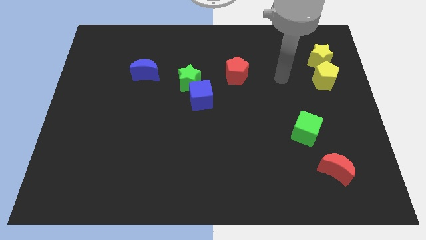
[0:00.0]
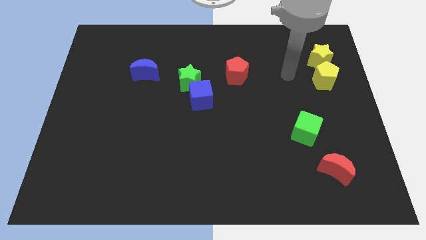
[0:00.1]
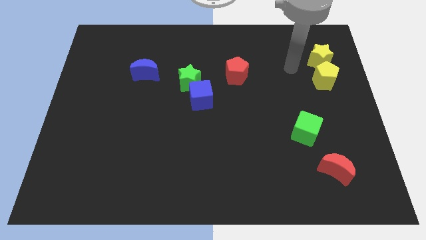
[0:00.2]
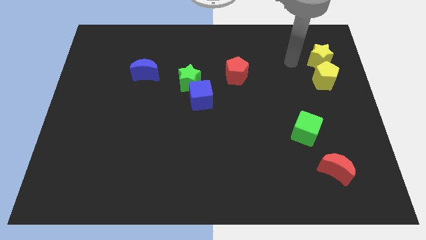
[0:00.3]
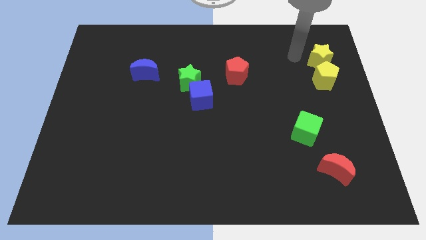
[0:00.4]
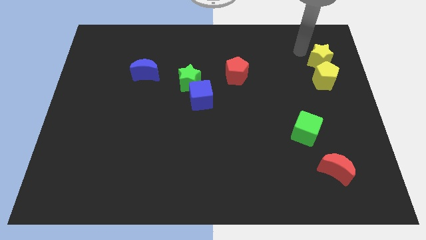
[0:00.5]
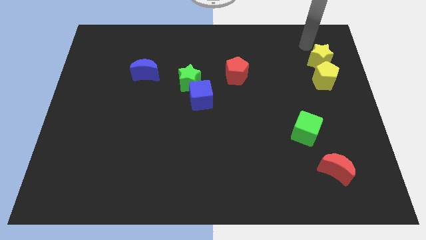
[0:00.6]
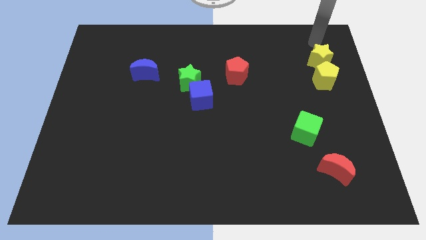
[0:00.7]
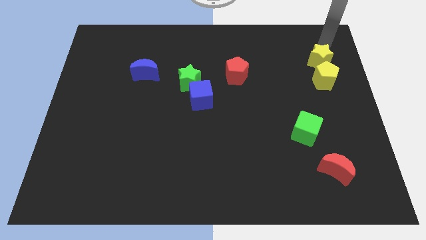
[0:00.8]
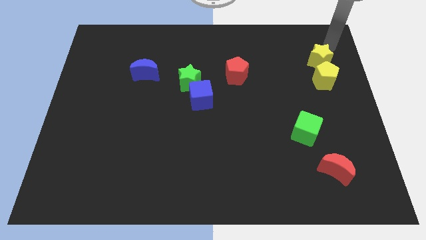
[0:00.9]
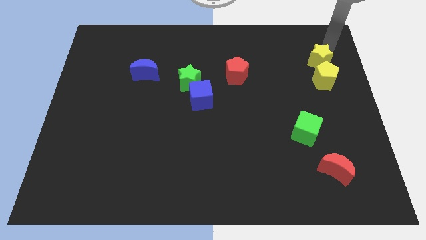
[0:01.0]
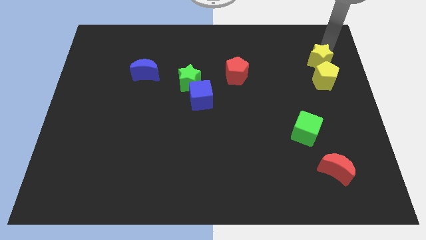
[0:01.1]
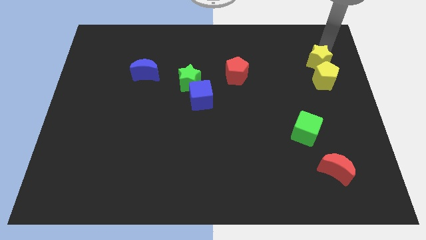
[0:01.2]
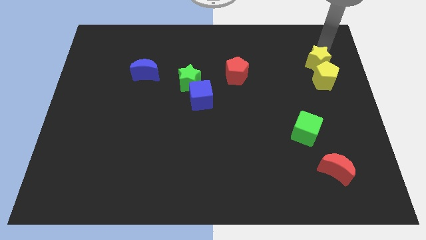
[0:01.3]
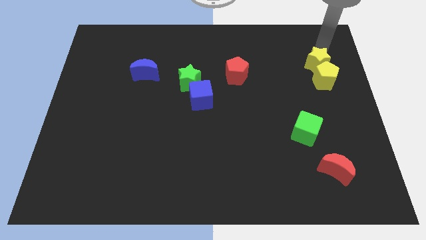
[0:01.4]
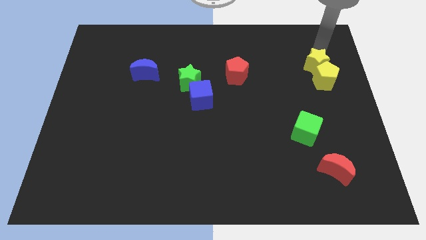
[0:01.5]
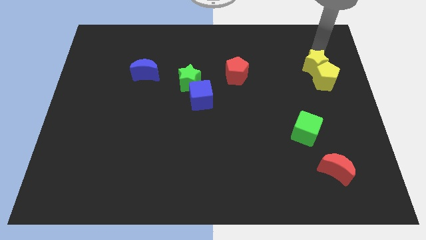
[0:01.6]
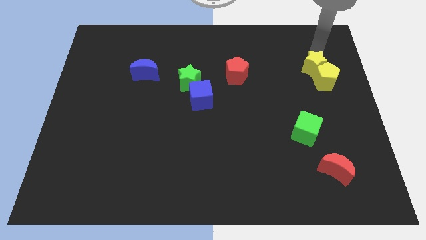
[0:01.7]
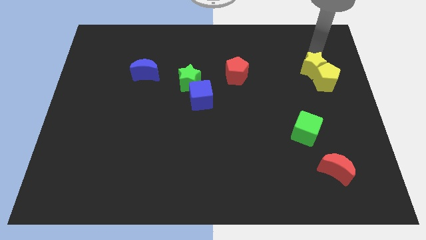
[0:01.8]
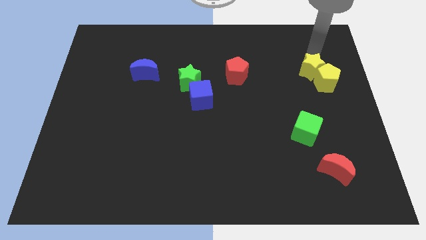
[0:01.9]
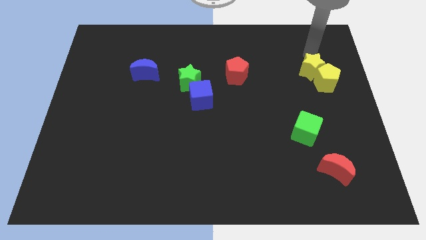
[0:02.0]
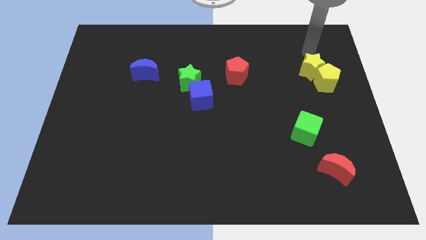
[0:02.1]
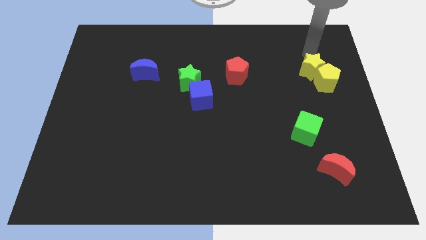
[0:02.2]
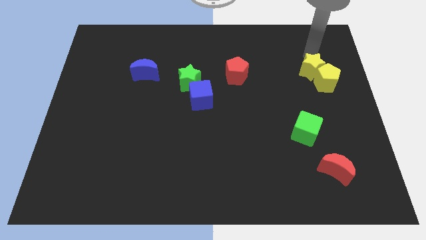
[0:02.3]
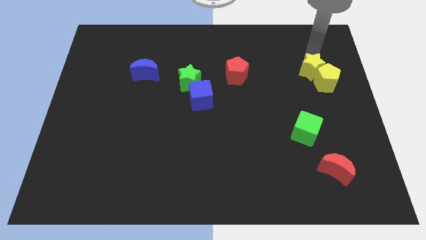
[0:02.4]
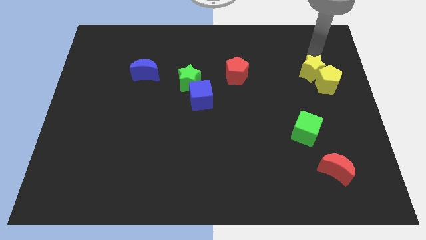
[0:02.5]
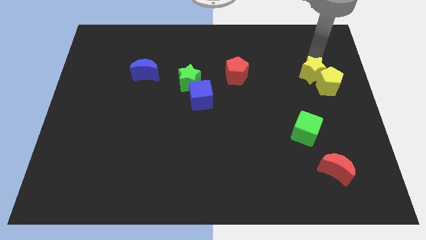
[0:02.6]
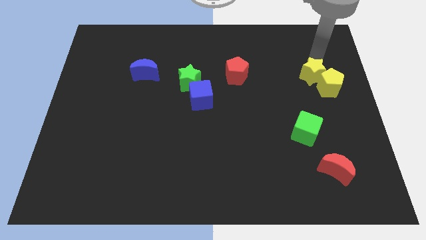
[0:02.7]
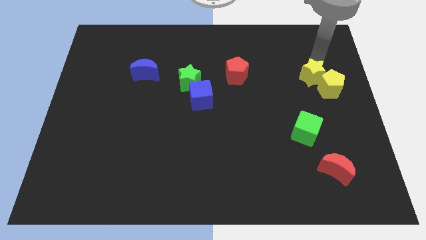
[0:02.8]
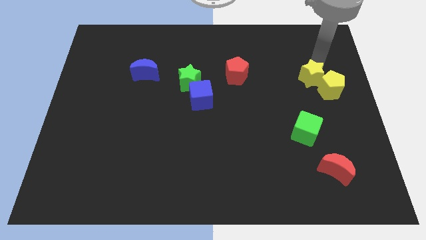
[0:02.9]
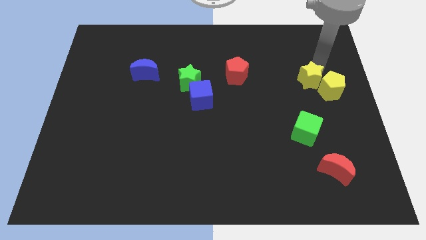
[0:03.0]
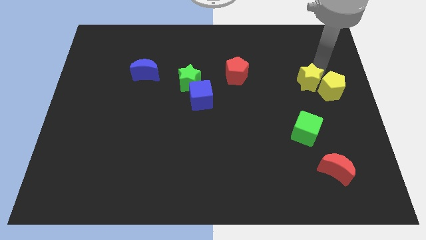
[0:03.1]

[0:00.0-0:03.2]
slide the yellow star downwards a little

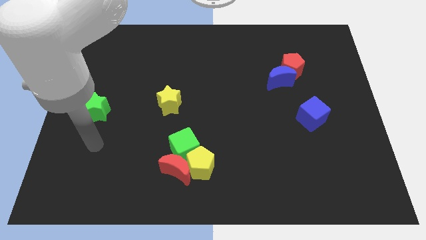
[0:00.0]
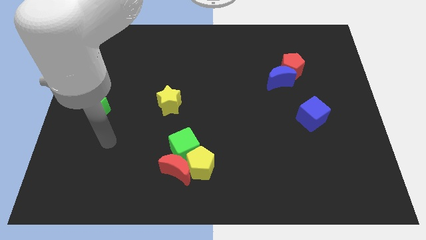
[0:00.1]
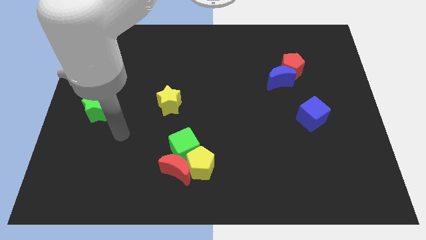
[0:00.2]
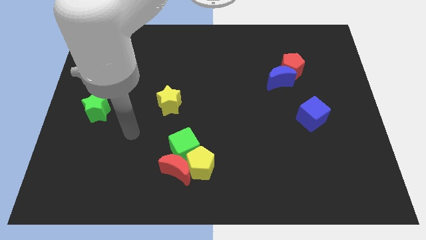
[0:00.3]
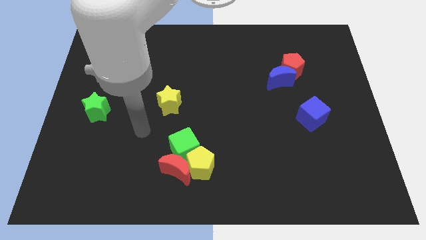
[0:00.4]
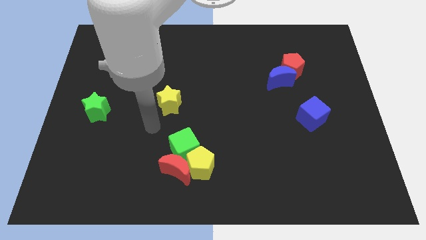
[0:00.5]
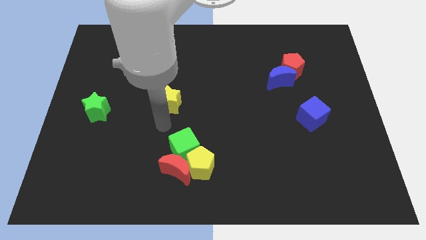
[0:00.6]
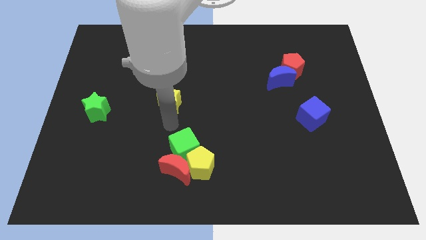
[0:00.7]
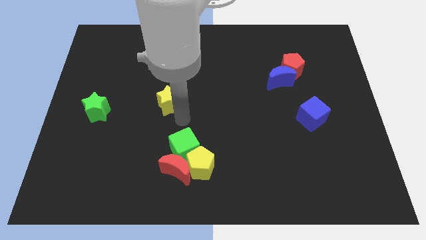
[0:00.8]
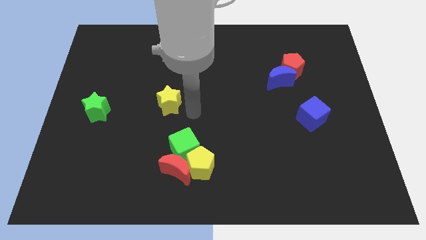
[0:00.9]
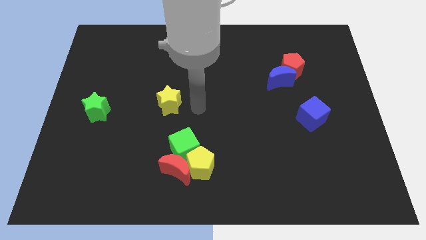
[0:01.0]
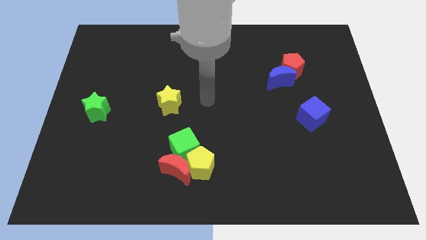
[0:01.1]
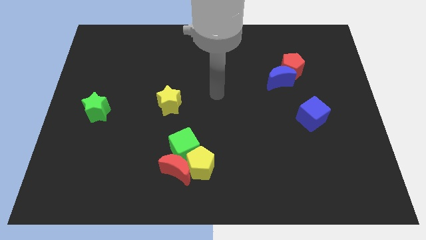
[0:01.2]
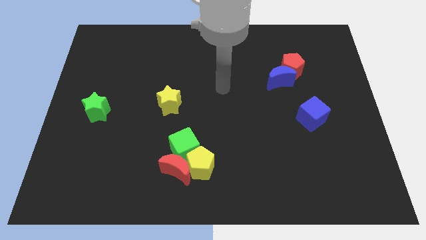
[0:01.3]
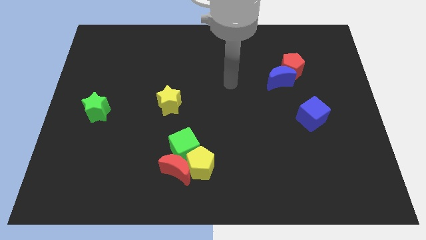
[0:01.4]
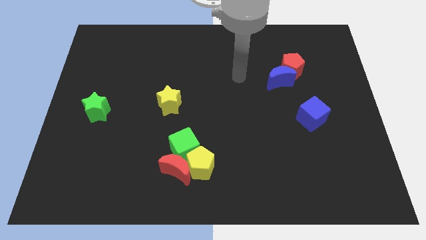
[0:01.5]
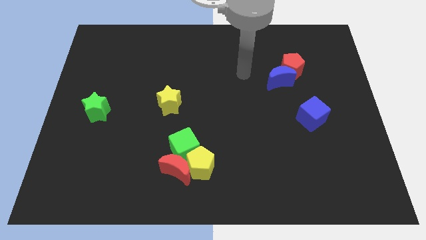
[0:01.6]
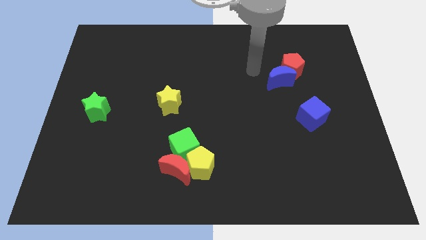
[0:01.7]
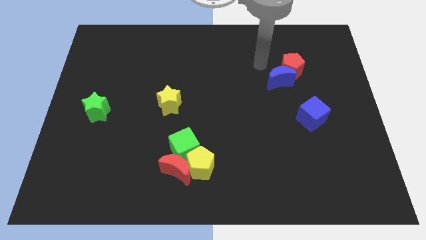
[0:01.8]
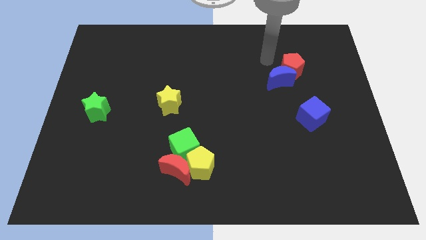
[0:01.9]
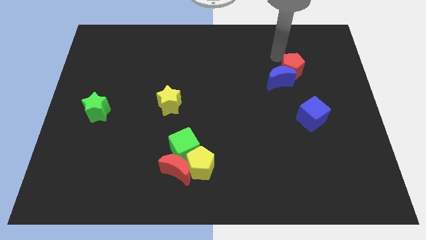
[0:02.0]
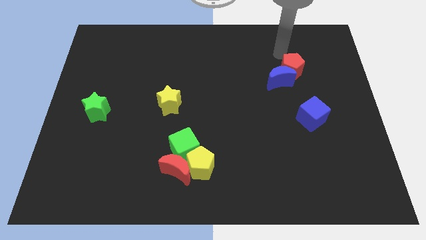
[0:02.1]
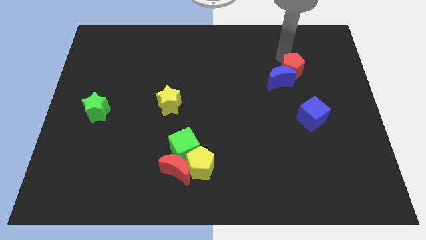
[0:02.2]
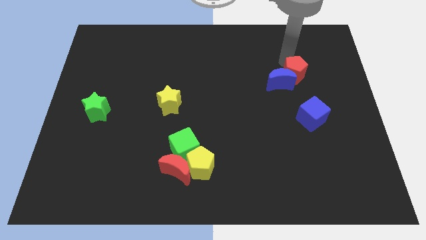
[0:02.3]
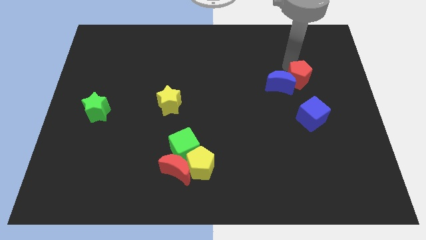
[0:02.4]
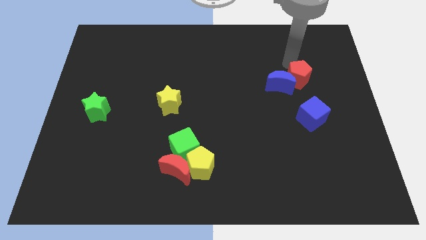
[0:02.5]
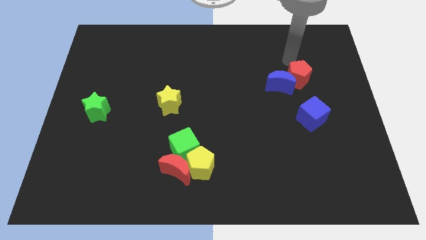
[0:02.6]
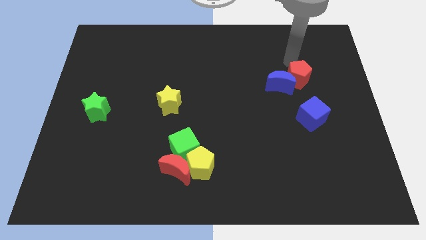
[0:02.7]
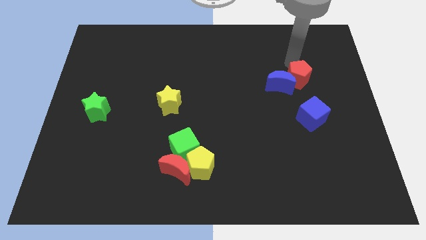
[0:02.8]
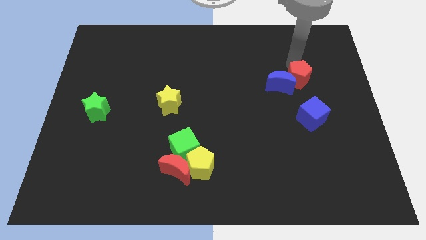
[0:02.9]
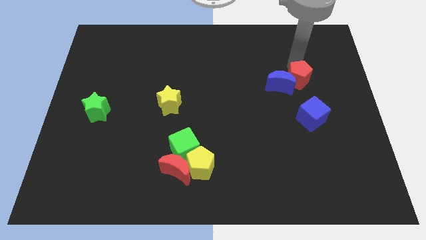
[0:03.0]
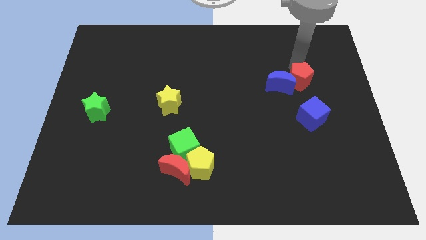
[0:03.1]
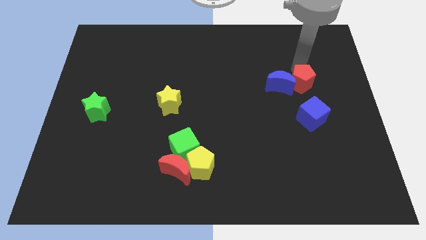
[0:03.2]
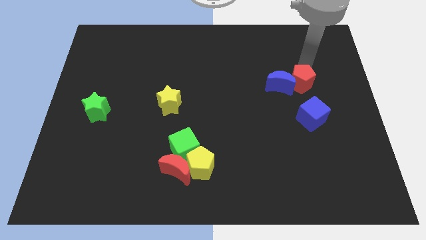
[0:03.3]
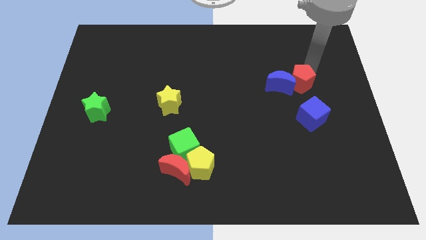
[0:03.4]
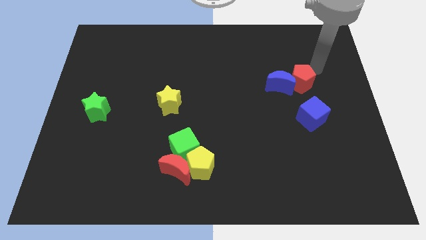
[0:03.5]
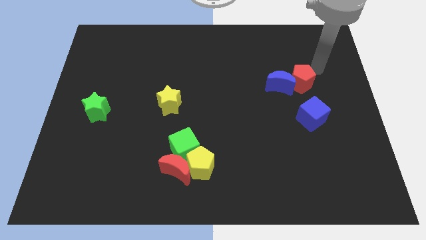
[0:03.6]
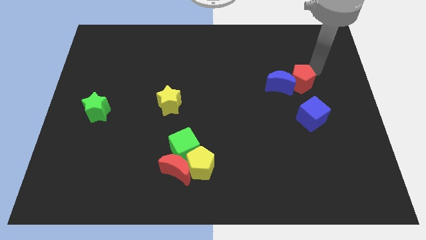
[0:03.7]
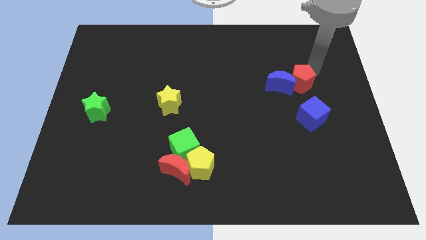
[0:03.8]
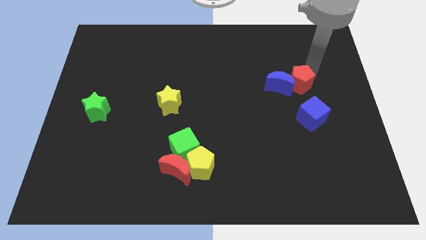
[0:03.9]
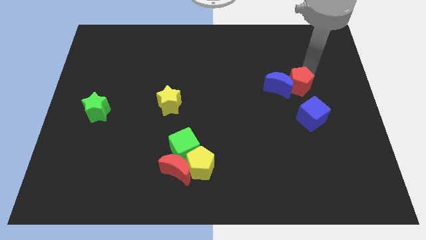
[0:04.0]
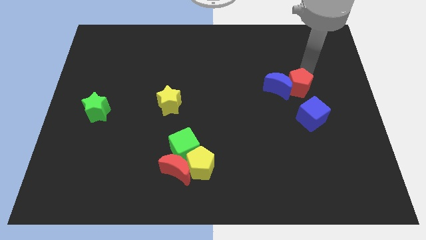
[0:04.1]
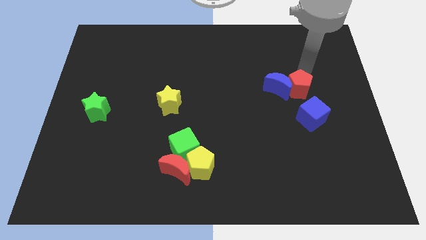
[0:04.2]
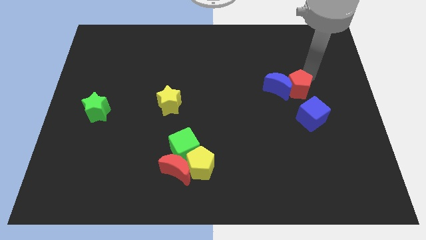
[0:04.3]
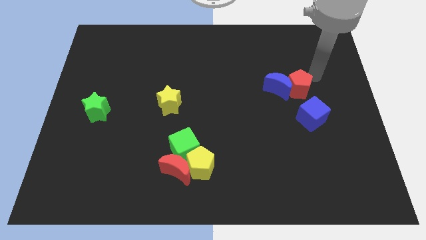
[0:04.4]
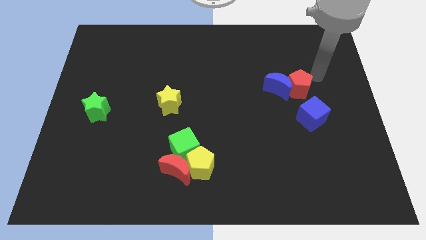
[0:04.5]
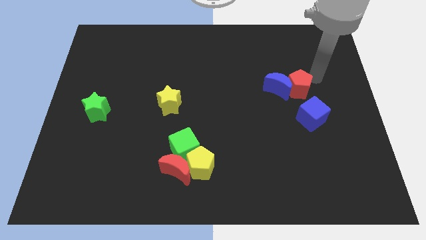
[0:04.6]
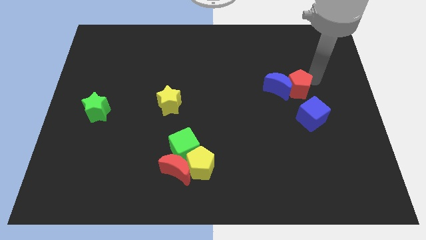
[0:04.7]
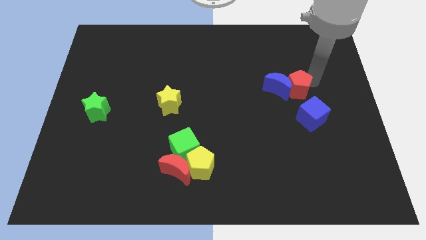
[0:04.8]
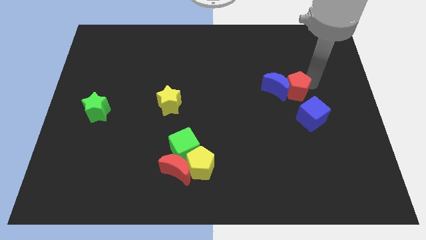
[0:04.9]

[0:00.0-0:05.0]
move the red pentagon somewhat down
